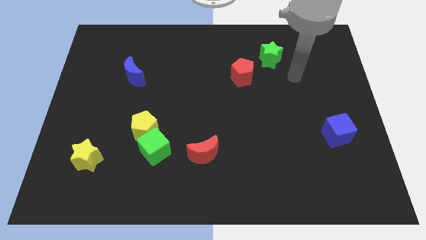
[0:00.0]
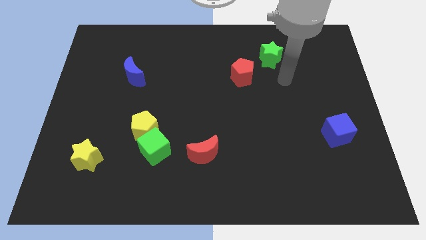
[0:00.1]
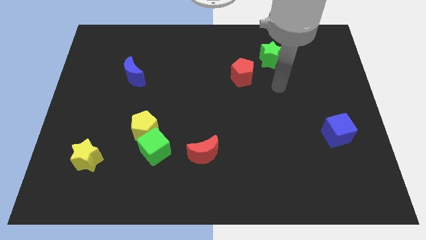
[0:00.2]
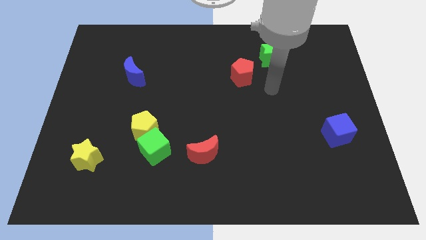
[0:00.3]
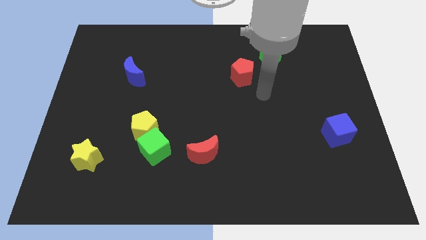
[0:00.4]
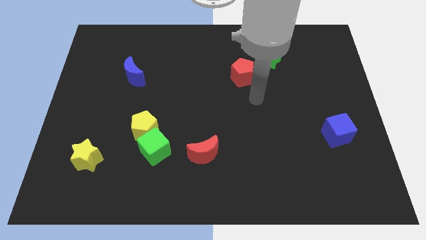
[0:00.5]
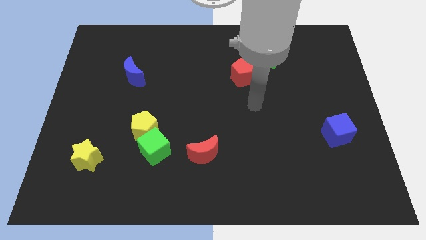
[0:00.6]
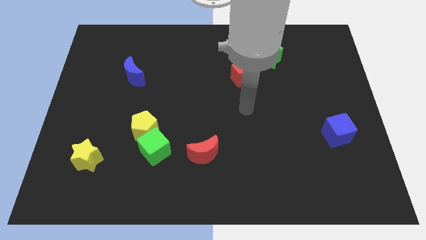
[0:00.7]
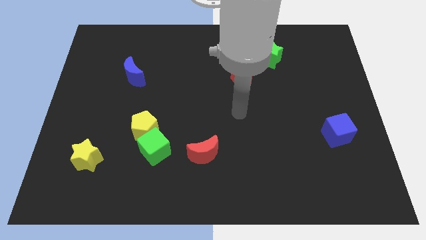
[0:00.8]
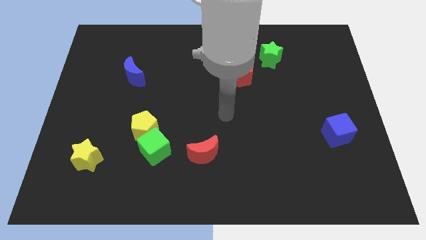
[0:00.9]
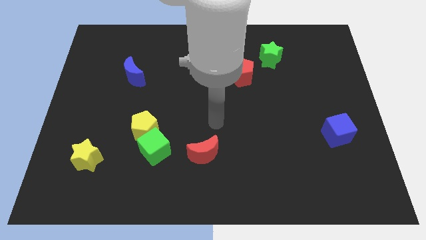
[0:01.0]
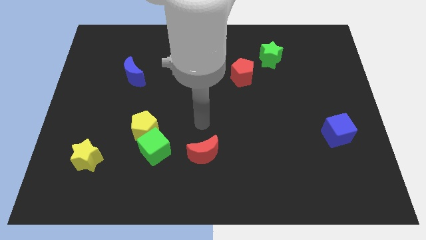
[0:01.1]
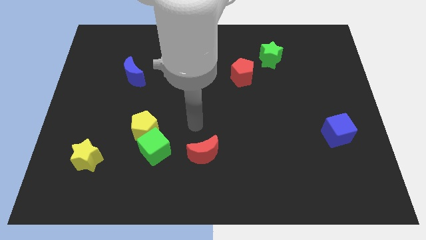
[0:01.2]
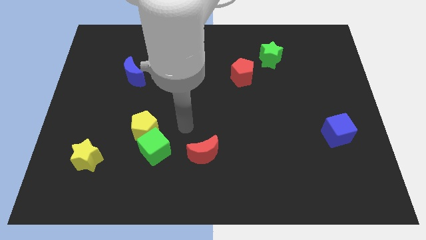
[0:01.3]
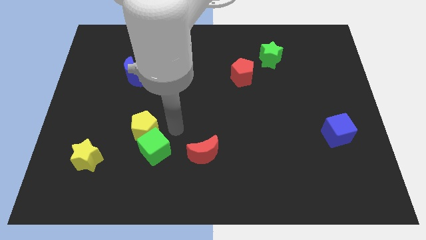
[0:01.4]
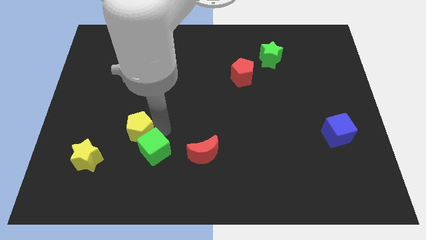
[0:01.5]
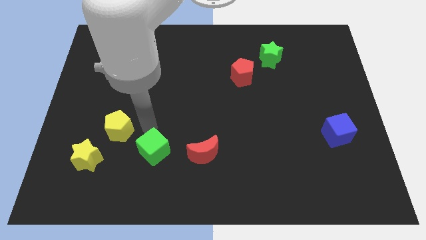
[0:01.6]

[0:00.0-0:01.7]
move the green cube away from the yellow pentagon

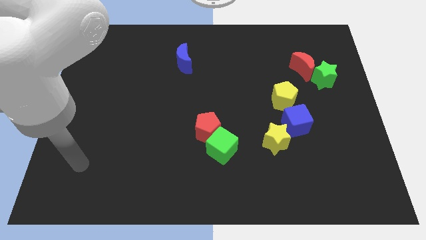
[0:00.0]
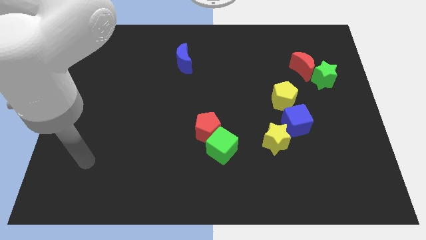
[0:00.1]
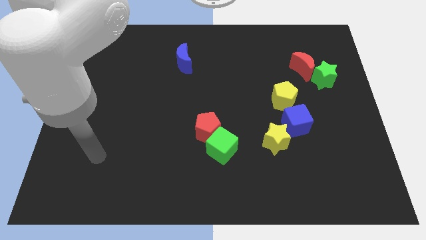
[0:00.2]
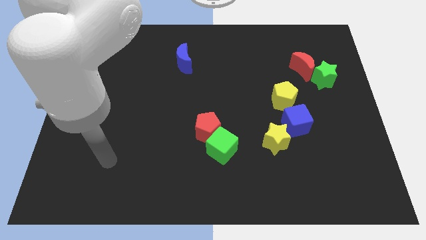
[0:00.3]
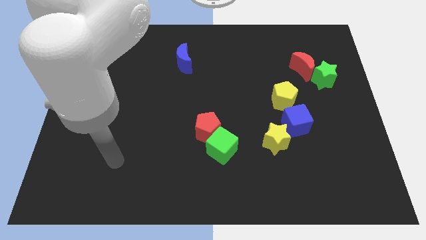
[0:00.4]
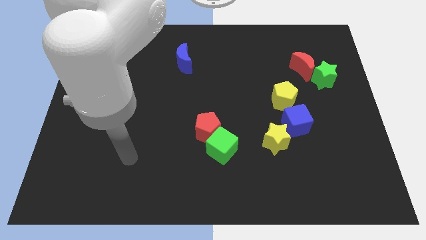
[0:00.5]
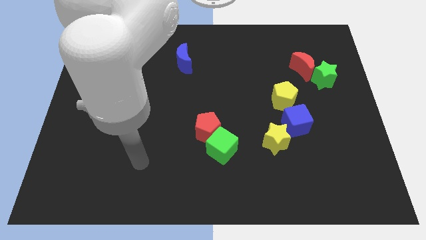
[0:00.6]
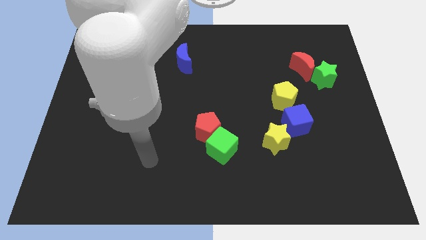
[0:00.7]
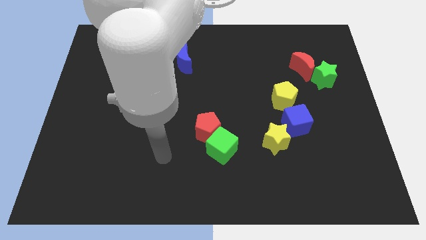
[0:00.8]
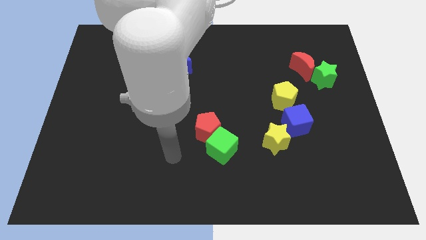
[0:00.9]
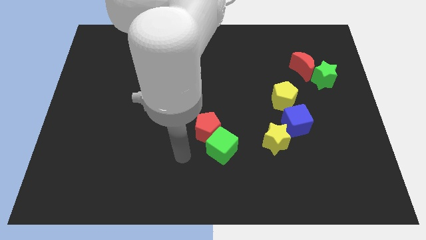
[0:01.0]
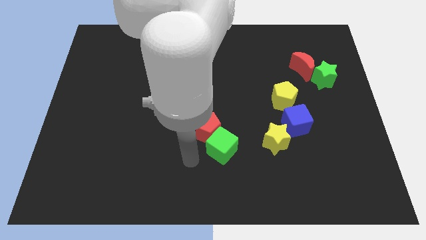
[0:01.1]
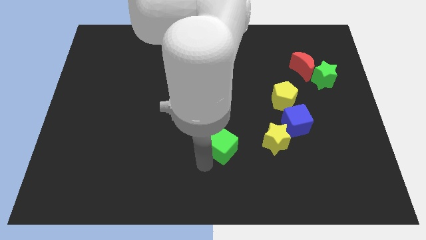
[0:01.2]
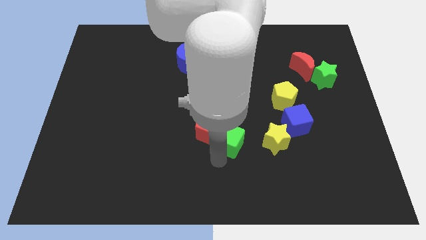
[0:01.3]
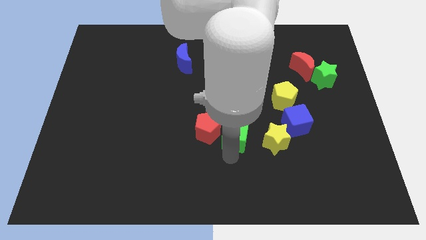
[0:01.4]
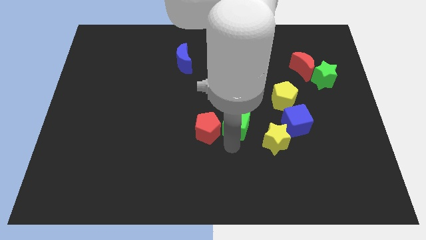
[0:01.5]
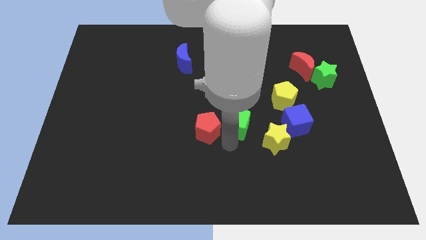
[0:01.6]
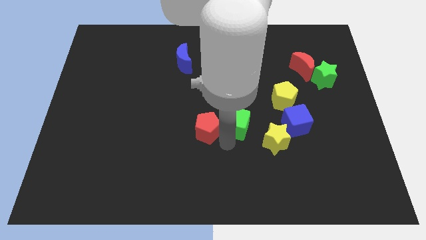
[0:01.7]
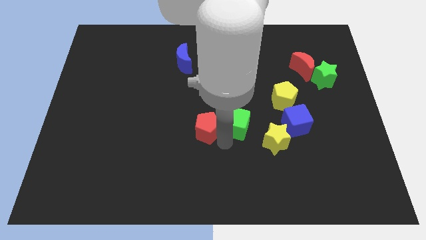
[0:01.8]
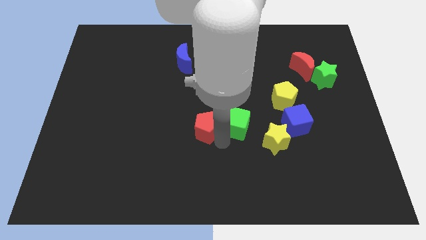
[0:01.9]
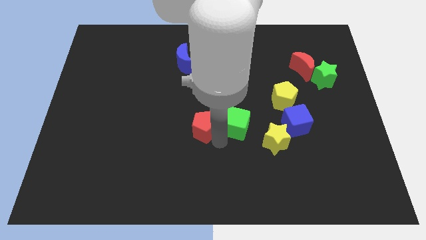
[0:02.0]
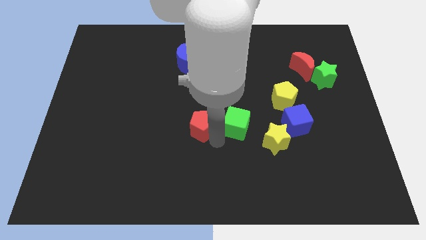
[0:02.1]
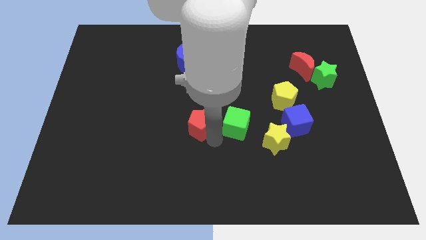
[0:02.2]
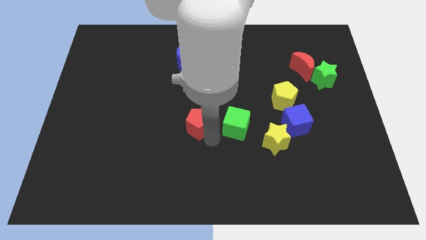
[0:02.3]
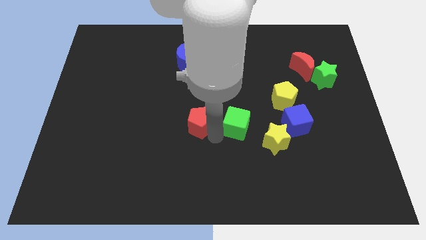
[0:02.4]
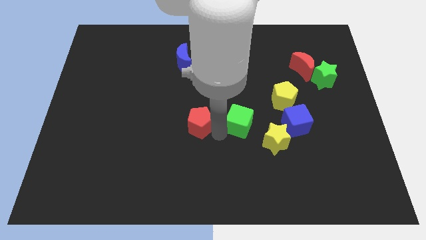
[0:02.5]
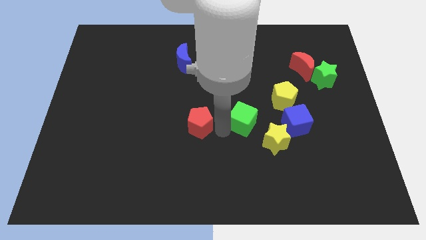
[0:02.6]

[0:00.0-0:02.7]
move the red pentagon away from the green cube

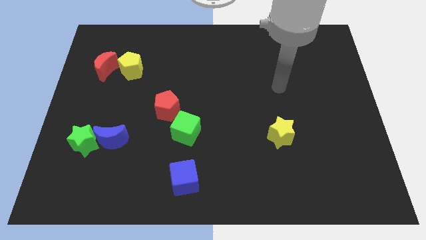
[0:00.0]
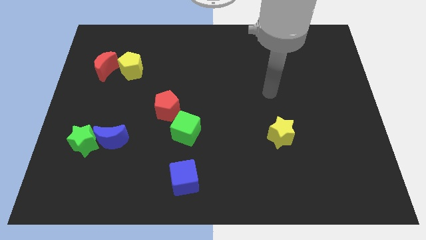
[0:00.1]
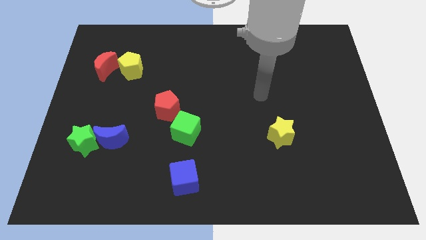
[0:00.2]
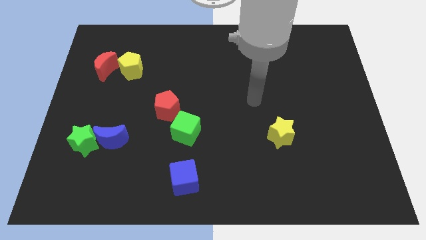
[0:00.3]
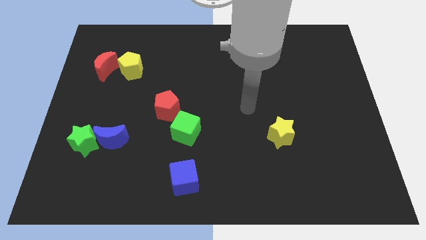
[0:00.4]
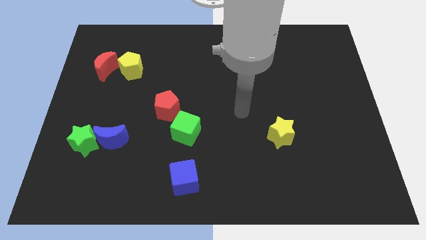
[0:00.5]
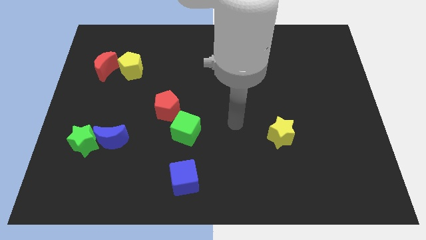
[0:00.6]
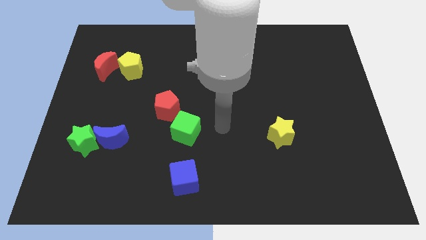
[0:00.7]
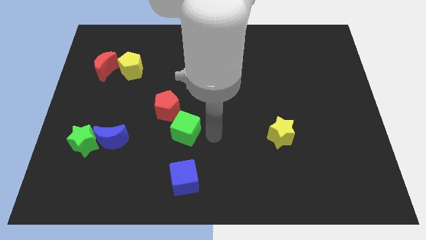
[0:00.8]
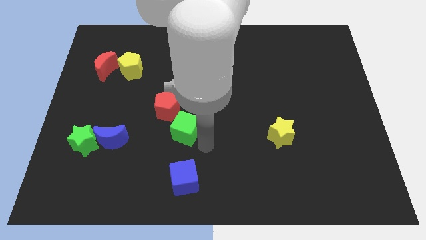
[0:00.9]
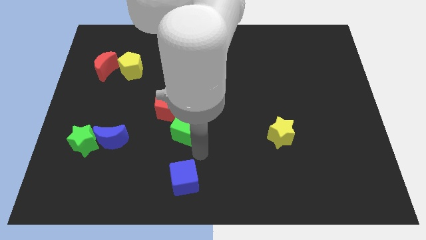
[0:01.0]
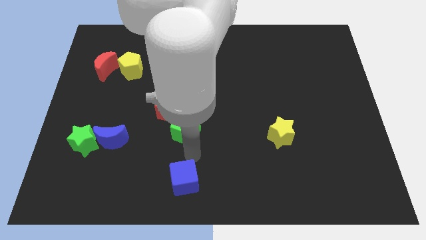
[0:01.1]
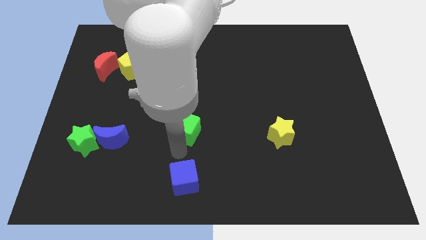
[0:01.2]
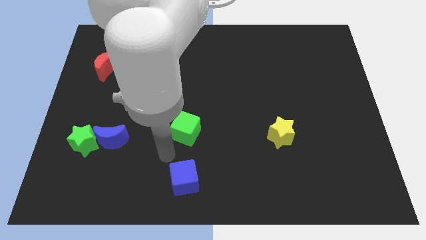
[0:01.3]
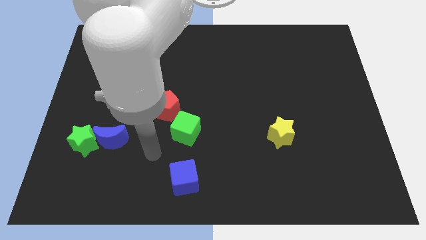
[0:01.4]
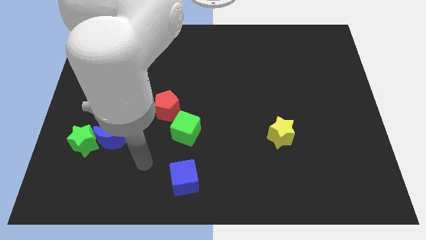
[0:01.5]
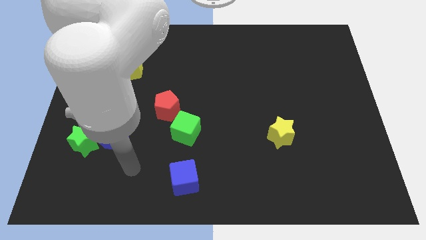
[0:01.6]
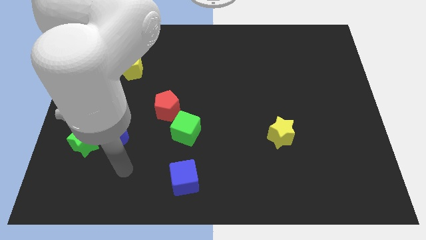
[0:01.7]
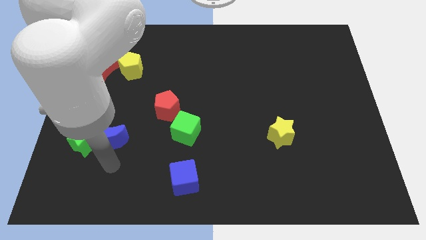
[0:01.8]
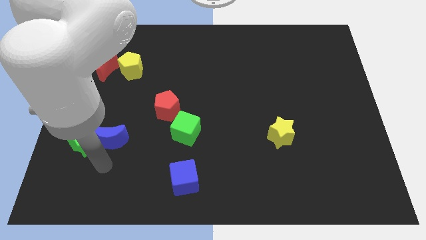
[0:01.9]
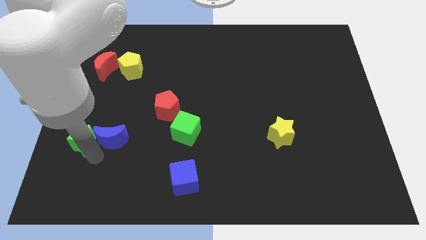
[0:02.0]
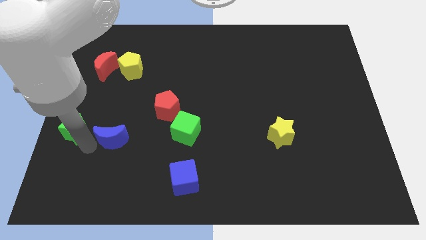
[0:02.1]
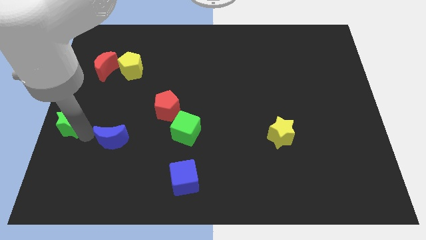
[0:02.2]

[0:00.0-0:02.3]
move the blue moon away from the green star

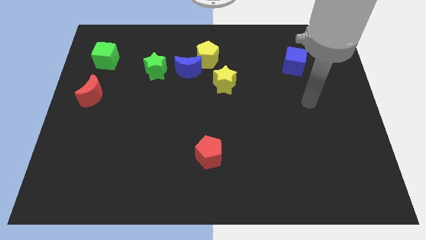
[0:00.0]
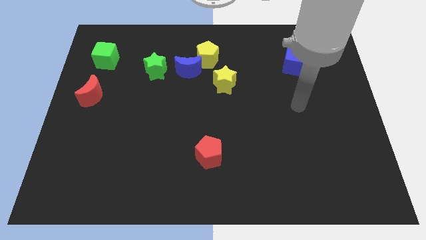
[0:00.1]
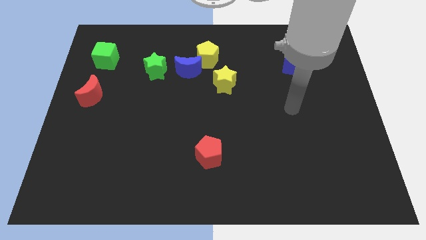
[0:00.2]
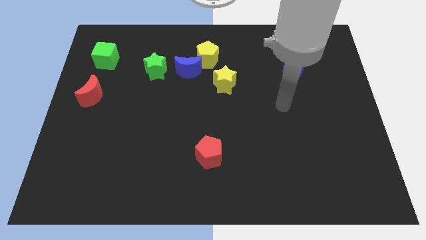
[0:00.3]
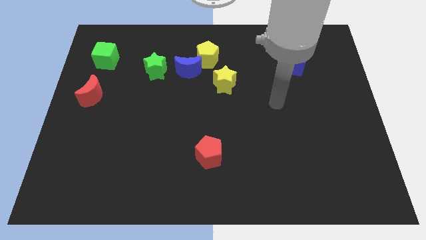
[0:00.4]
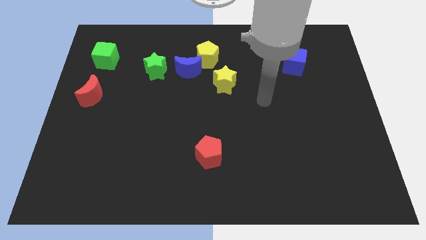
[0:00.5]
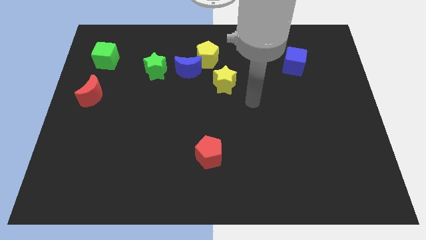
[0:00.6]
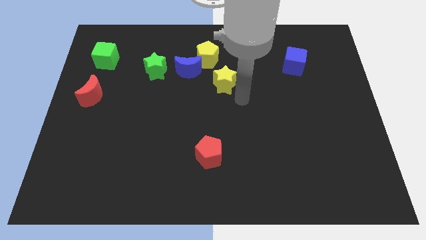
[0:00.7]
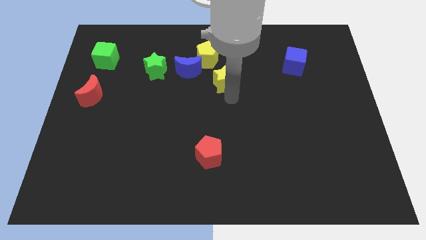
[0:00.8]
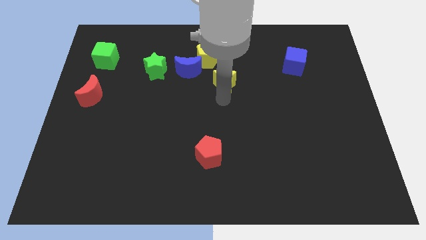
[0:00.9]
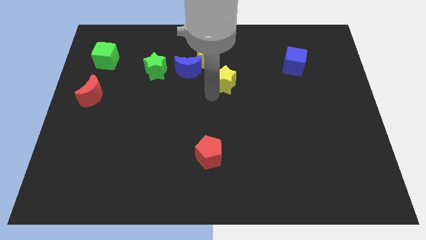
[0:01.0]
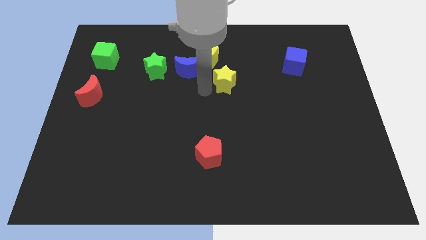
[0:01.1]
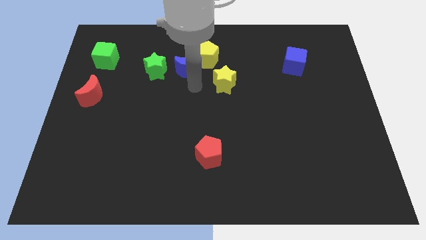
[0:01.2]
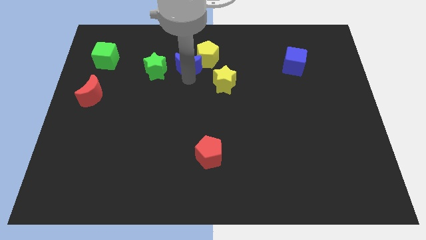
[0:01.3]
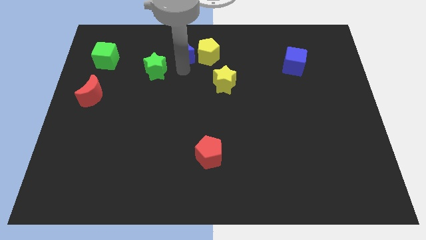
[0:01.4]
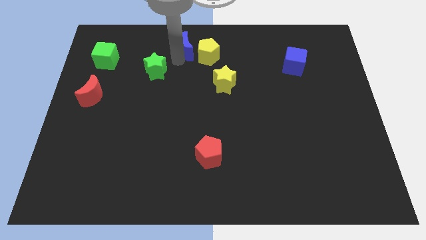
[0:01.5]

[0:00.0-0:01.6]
move the green star away from the blue moon

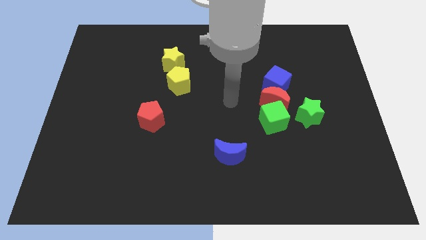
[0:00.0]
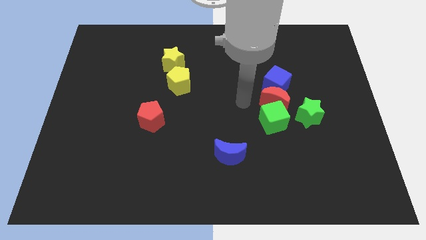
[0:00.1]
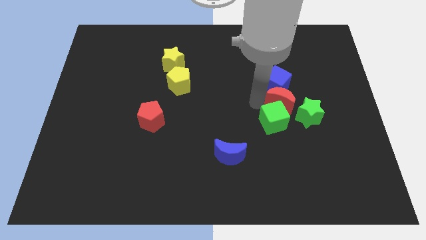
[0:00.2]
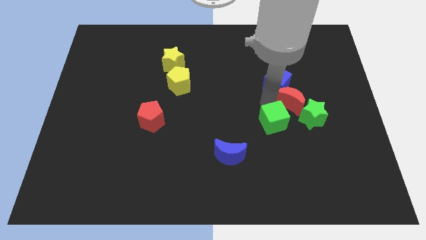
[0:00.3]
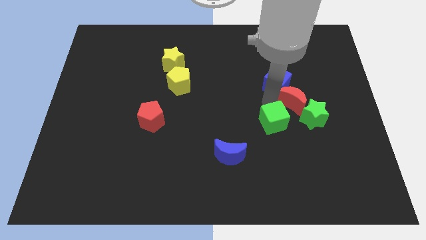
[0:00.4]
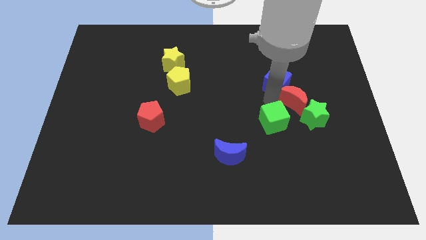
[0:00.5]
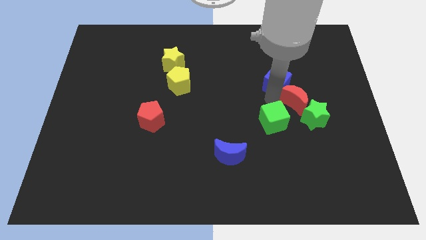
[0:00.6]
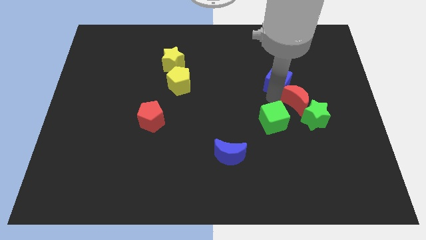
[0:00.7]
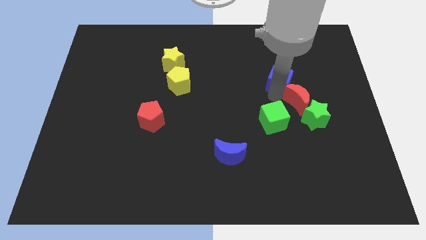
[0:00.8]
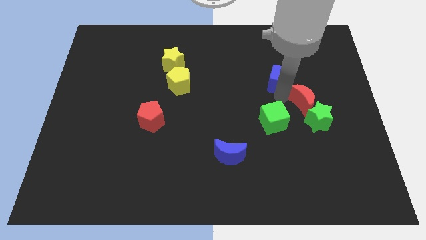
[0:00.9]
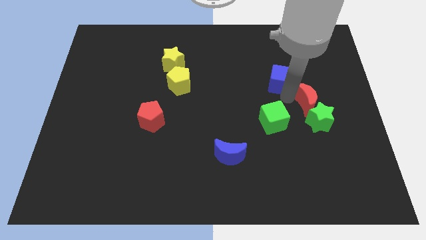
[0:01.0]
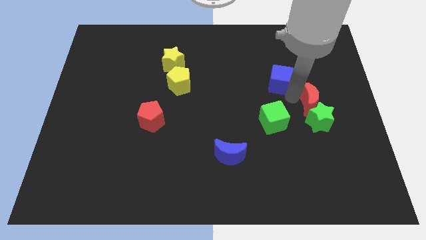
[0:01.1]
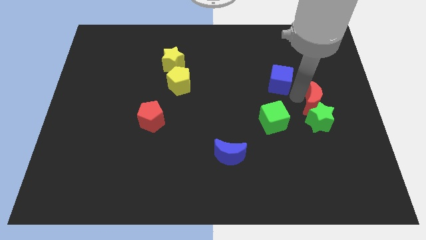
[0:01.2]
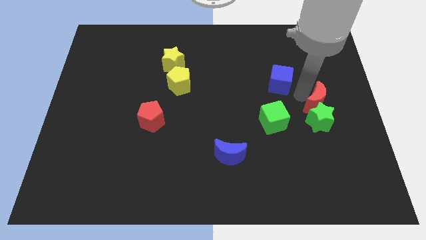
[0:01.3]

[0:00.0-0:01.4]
move the blue cube away from the red moon
